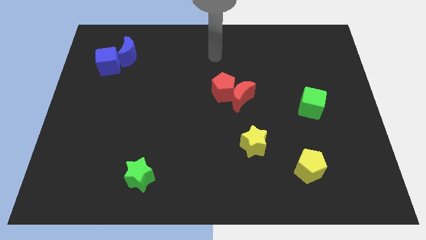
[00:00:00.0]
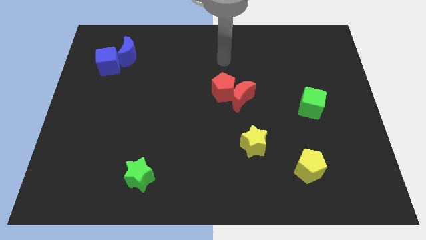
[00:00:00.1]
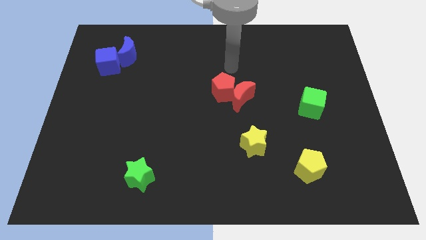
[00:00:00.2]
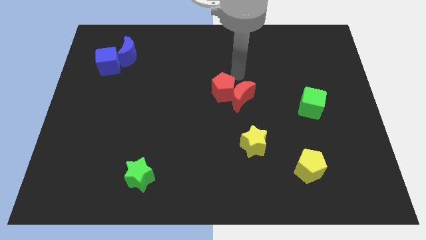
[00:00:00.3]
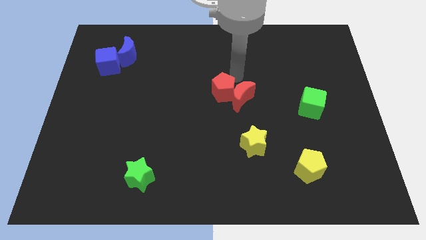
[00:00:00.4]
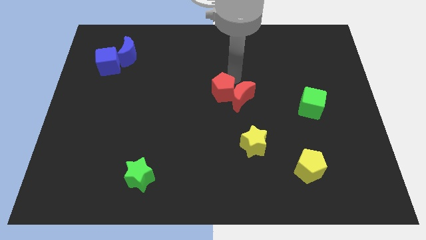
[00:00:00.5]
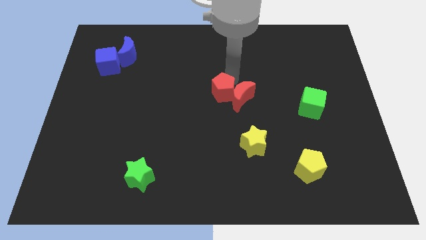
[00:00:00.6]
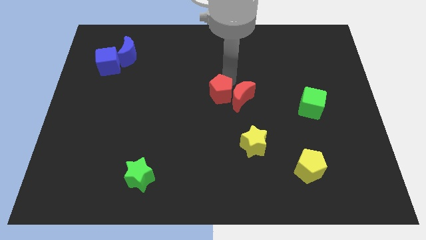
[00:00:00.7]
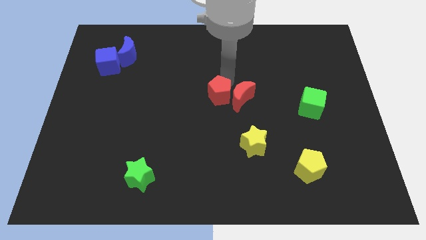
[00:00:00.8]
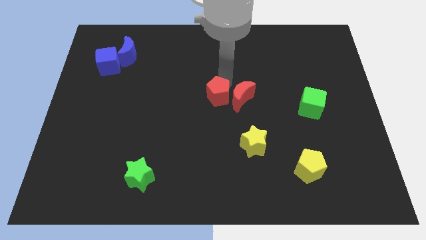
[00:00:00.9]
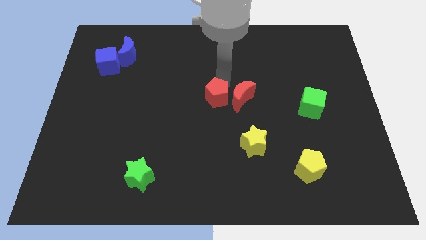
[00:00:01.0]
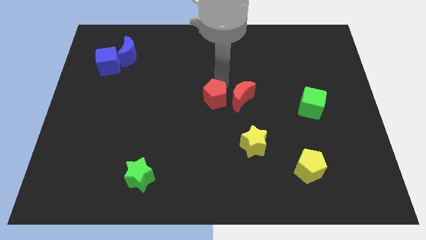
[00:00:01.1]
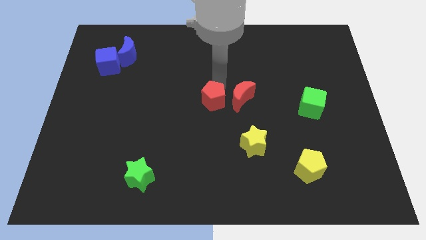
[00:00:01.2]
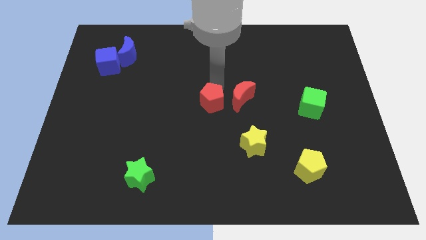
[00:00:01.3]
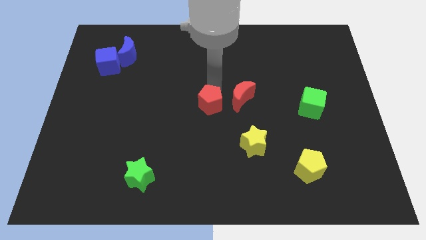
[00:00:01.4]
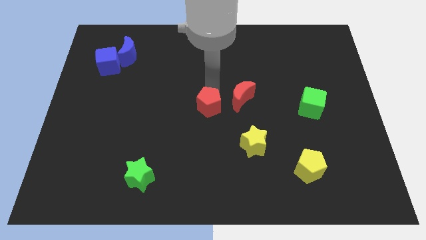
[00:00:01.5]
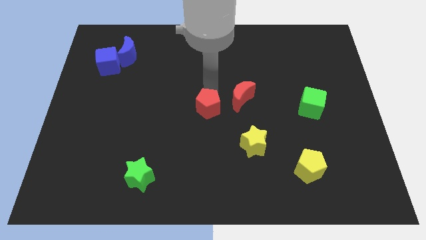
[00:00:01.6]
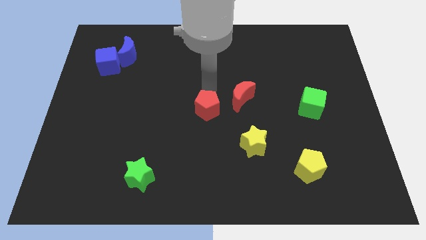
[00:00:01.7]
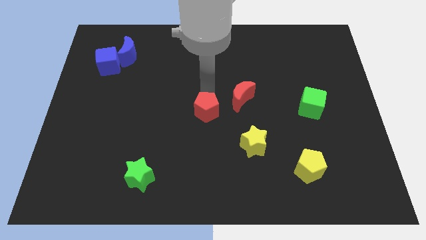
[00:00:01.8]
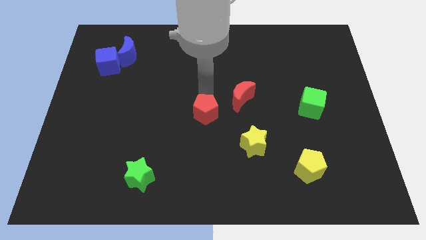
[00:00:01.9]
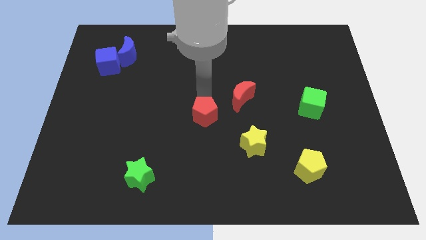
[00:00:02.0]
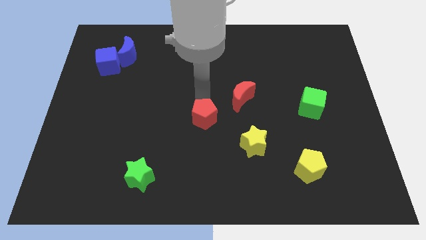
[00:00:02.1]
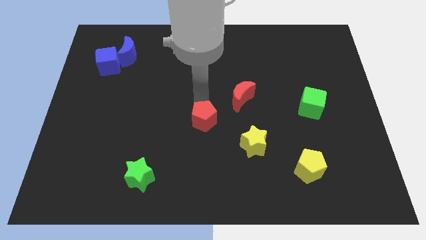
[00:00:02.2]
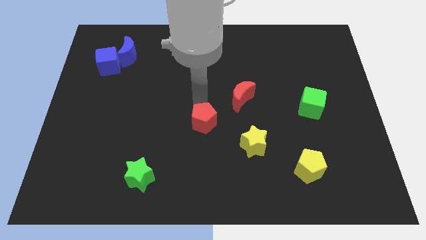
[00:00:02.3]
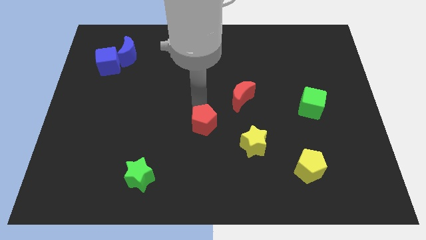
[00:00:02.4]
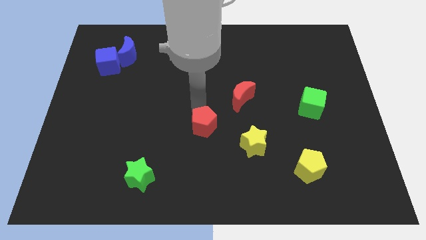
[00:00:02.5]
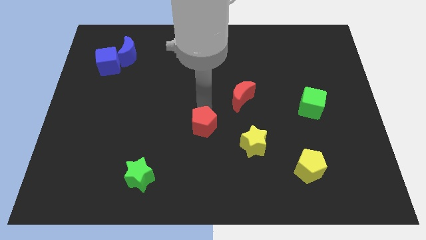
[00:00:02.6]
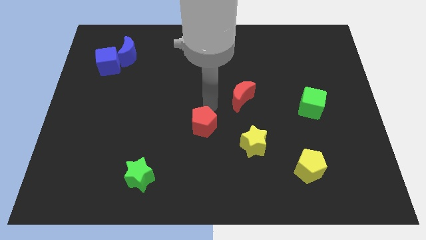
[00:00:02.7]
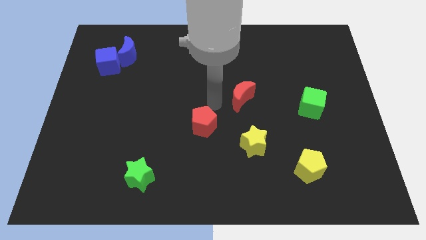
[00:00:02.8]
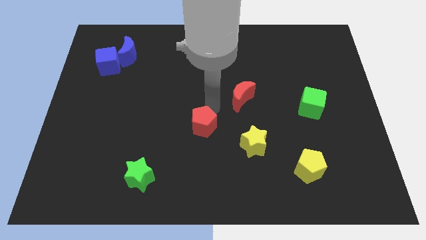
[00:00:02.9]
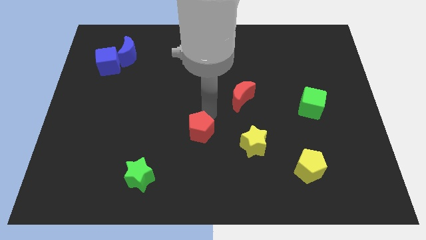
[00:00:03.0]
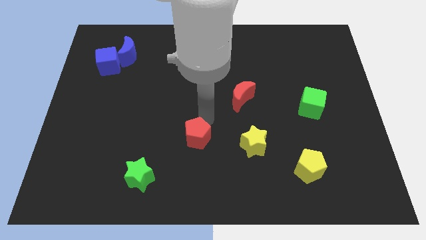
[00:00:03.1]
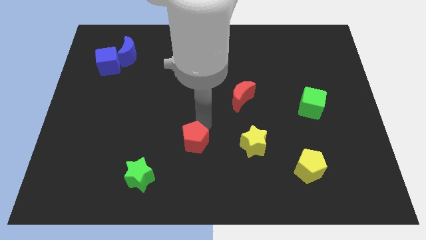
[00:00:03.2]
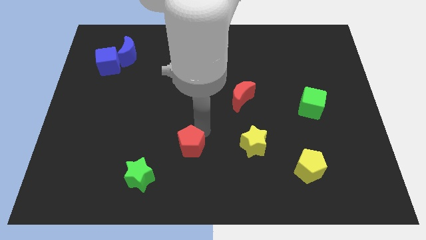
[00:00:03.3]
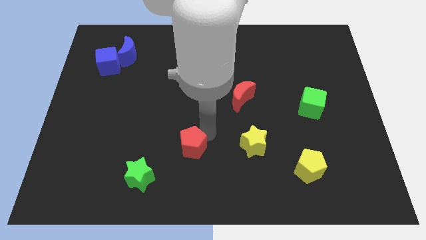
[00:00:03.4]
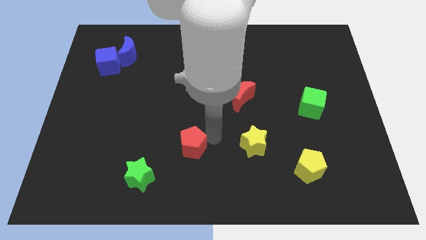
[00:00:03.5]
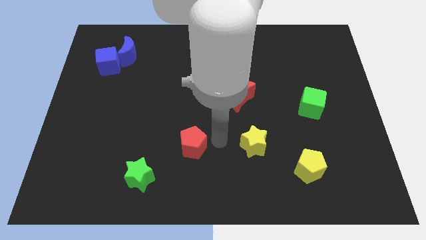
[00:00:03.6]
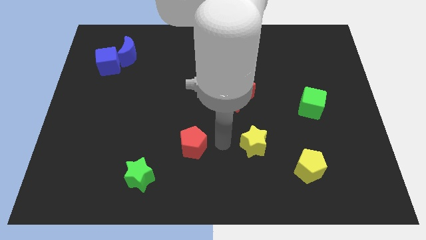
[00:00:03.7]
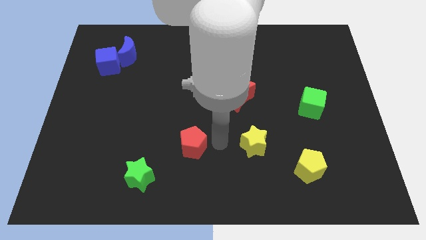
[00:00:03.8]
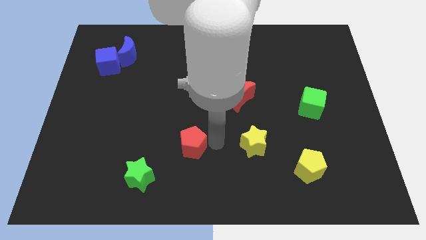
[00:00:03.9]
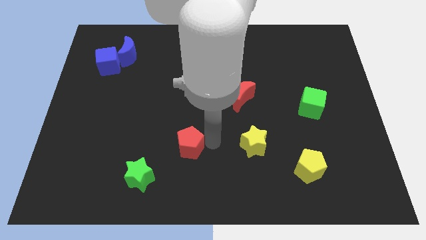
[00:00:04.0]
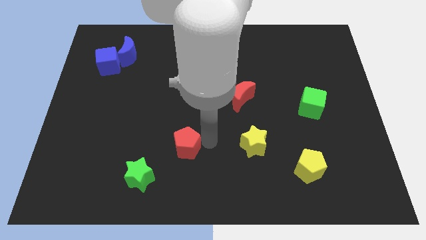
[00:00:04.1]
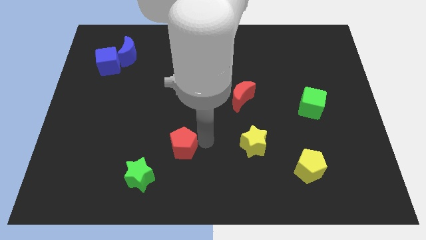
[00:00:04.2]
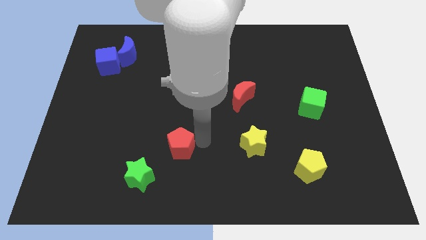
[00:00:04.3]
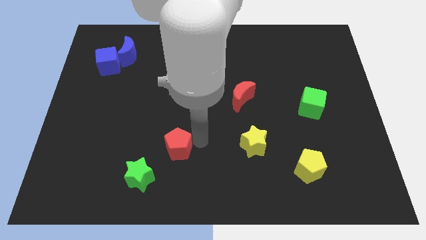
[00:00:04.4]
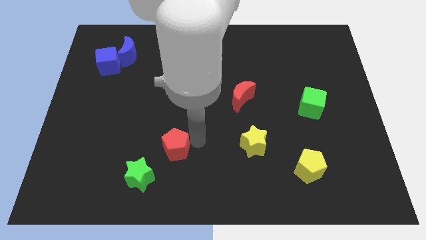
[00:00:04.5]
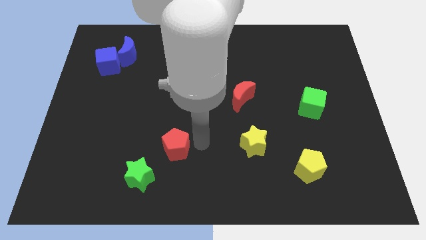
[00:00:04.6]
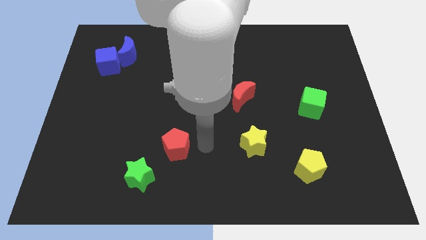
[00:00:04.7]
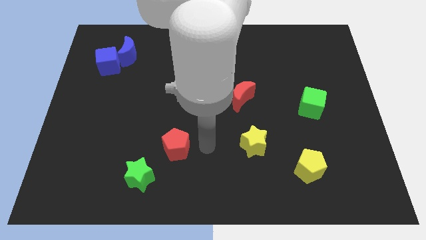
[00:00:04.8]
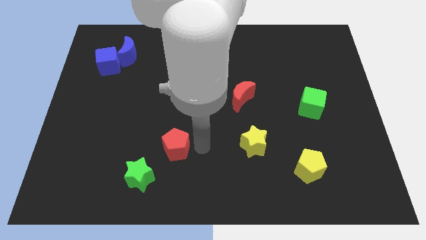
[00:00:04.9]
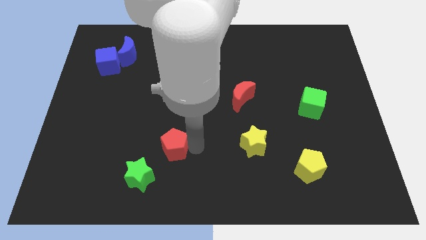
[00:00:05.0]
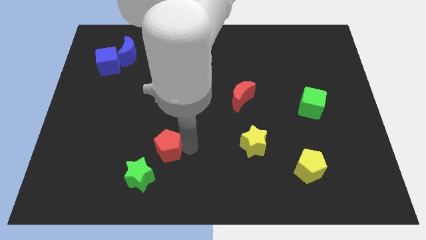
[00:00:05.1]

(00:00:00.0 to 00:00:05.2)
push the red pentagon down and to the left

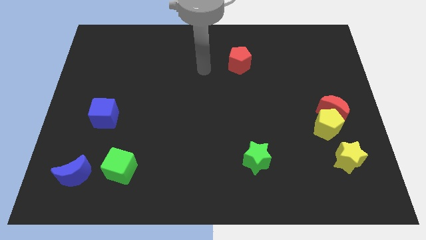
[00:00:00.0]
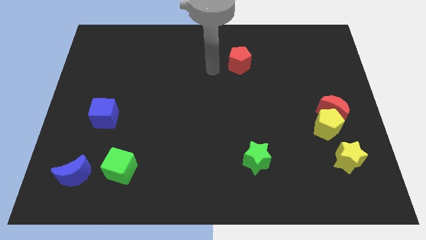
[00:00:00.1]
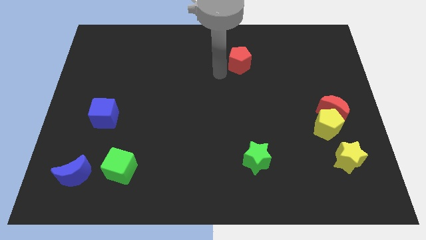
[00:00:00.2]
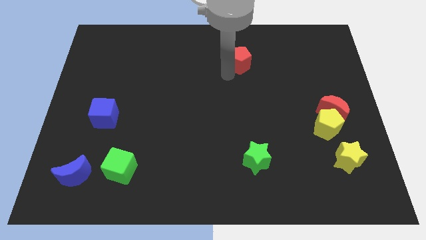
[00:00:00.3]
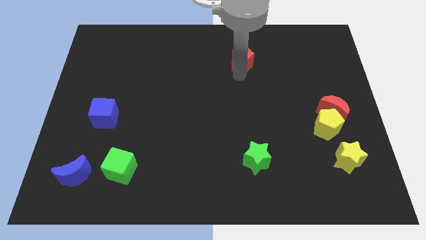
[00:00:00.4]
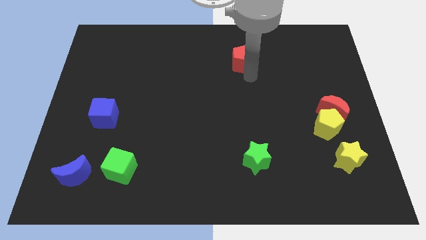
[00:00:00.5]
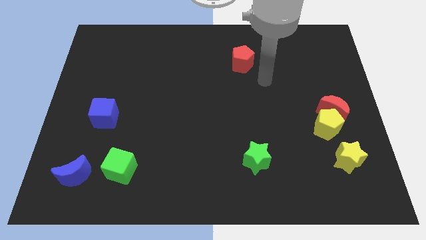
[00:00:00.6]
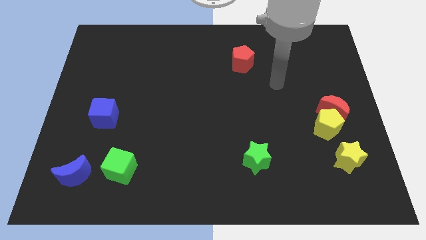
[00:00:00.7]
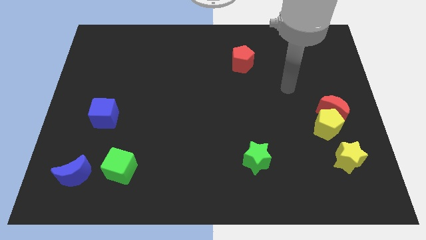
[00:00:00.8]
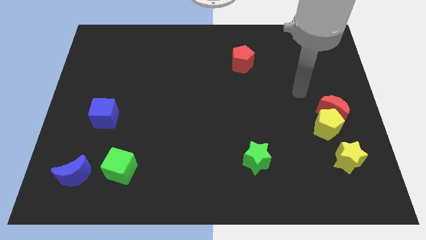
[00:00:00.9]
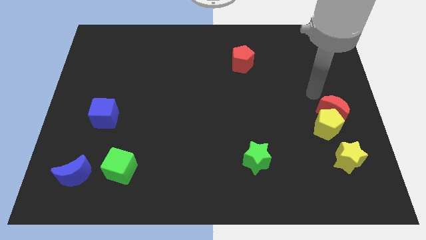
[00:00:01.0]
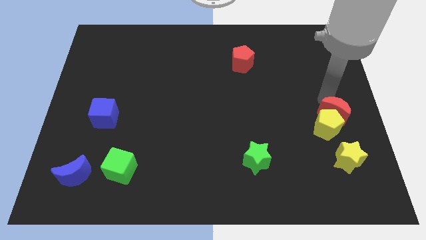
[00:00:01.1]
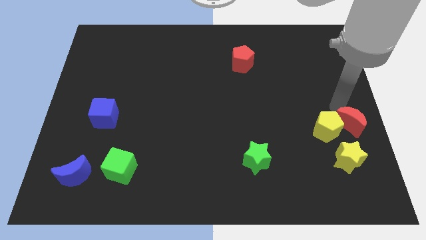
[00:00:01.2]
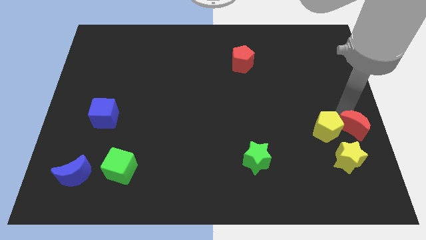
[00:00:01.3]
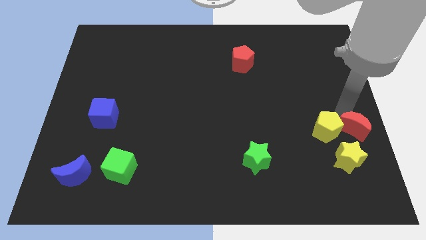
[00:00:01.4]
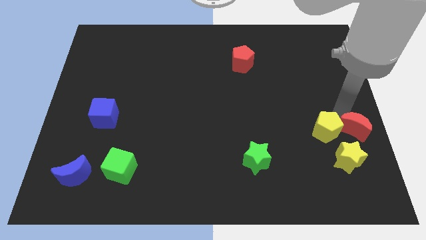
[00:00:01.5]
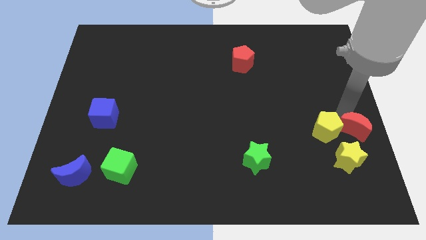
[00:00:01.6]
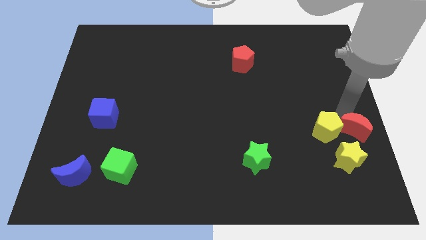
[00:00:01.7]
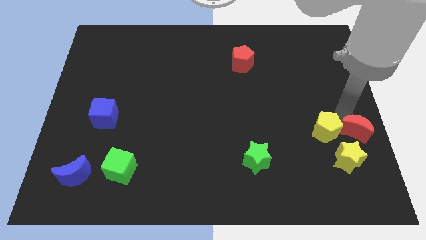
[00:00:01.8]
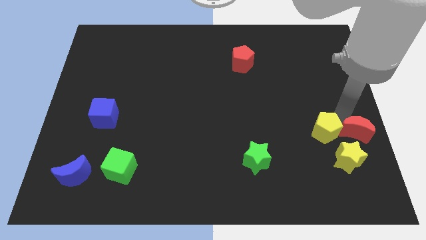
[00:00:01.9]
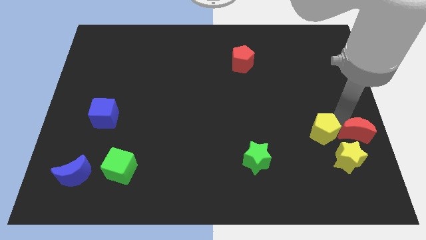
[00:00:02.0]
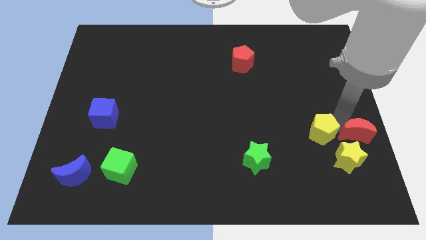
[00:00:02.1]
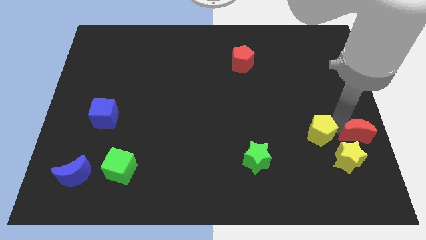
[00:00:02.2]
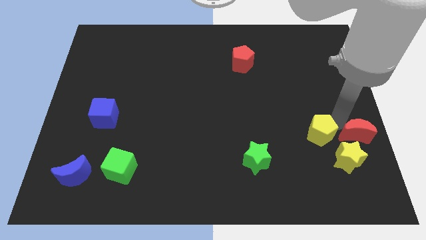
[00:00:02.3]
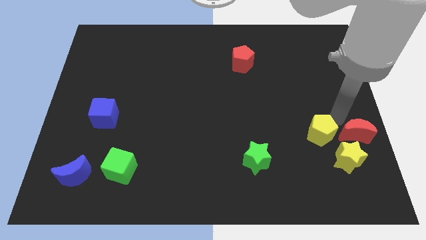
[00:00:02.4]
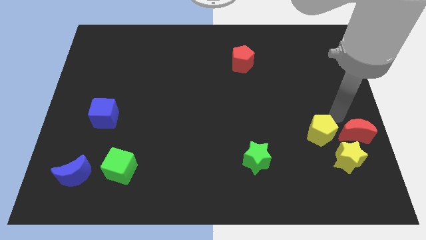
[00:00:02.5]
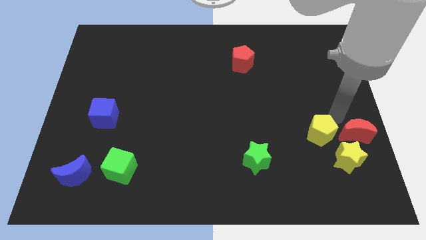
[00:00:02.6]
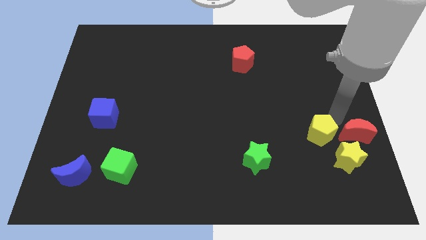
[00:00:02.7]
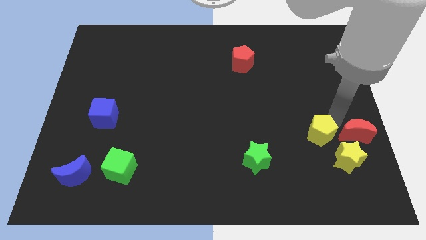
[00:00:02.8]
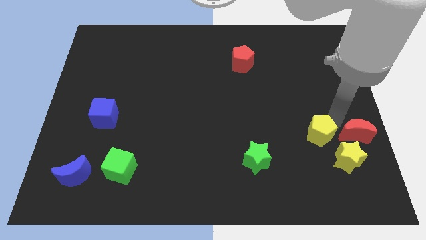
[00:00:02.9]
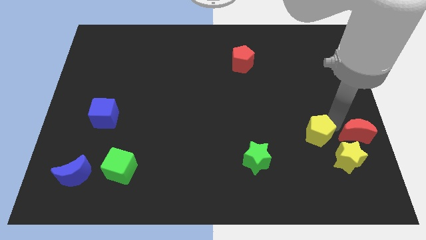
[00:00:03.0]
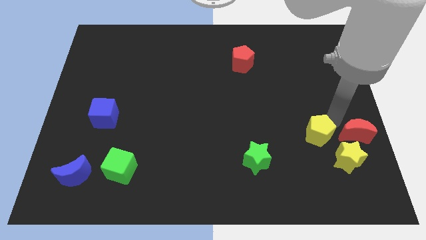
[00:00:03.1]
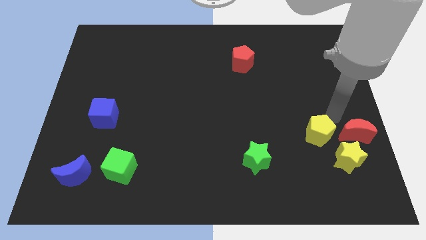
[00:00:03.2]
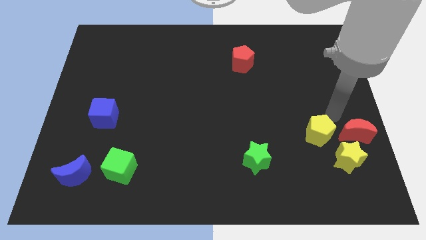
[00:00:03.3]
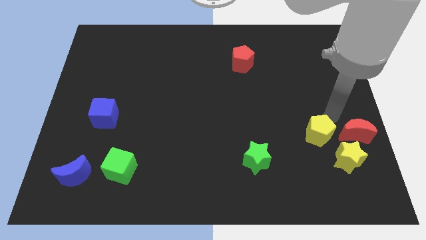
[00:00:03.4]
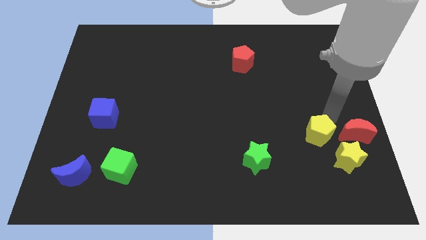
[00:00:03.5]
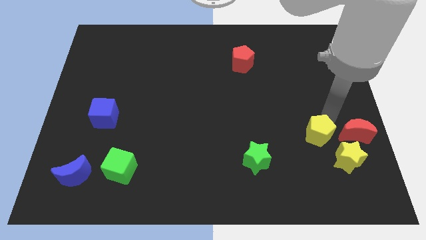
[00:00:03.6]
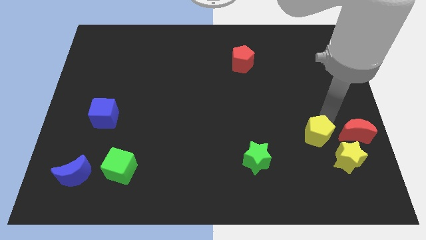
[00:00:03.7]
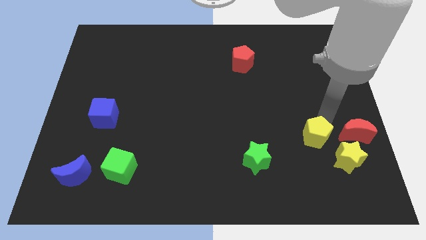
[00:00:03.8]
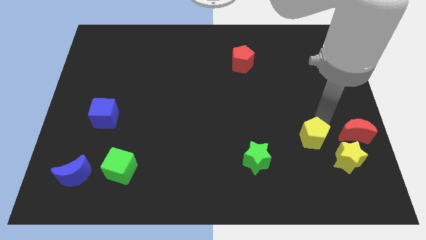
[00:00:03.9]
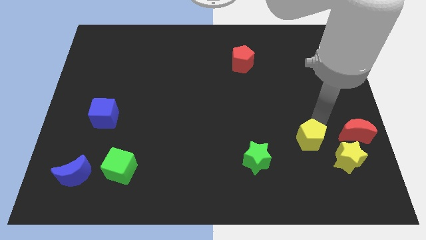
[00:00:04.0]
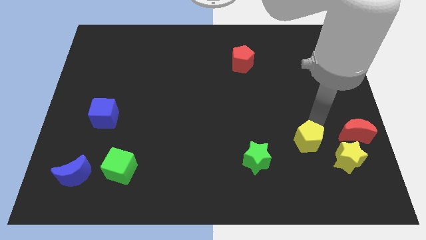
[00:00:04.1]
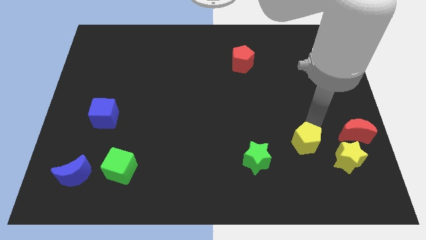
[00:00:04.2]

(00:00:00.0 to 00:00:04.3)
slightly slide the yellow pentagon diagonally downwards and left
